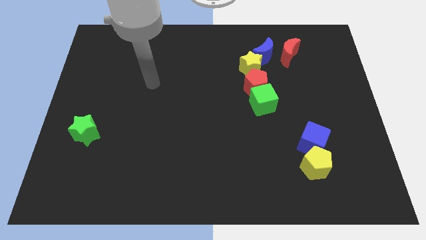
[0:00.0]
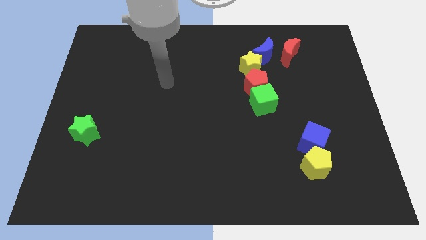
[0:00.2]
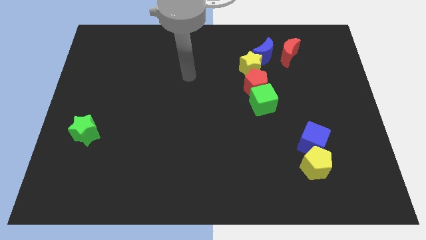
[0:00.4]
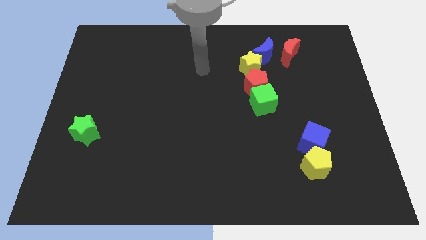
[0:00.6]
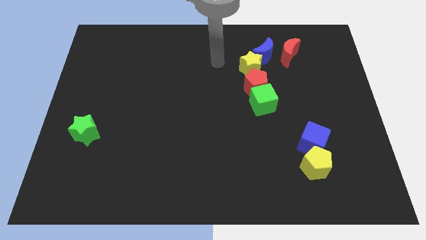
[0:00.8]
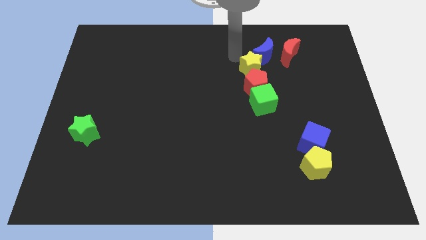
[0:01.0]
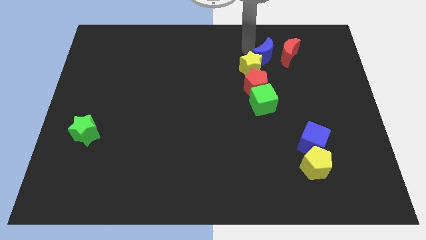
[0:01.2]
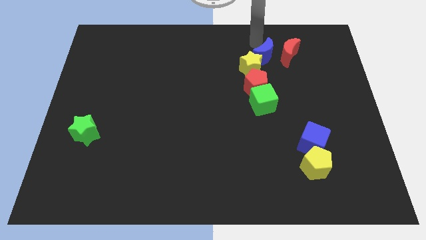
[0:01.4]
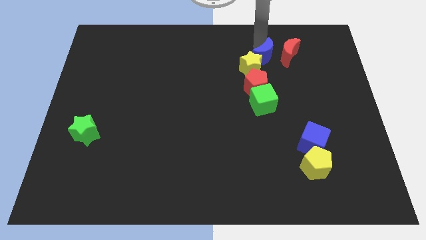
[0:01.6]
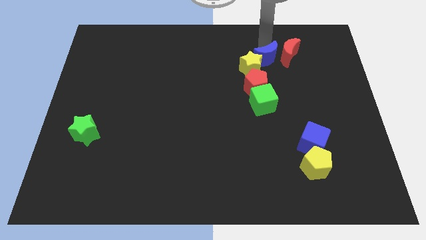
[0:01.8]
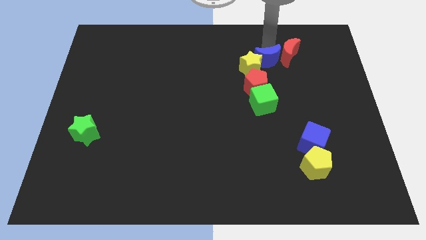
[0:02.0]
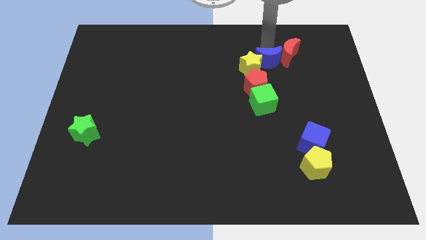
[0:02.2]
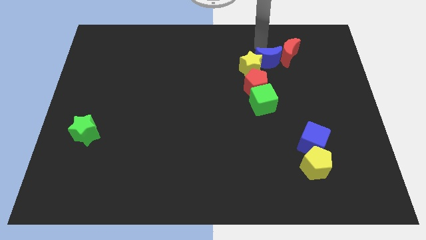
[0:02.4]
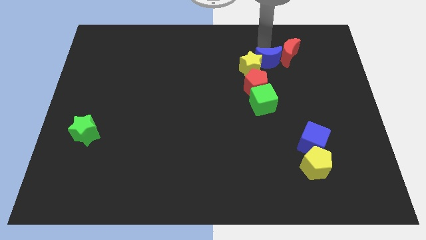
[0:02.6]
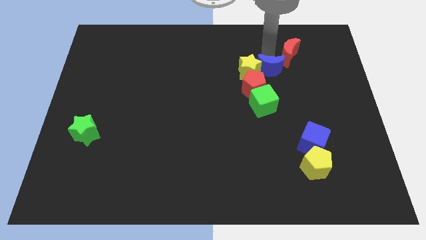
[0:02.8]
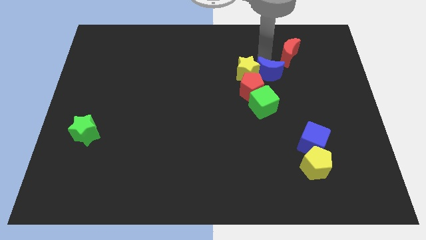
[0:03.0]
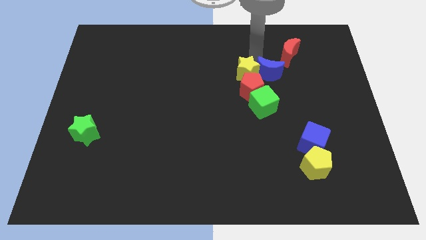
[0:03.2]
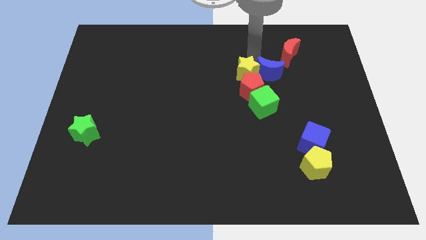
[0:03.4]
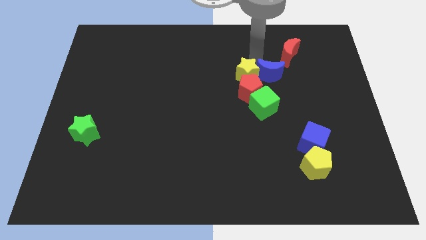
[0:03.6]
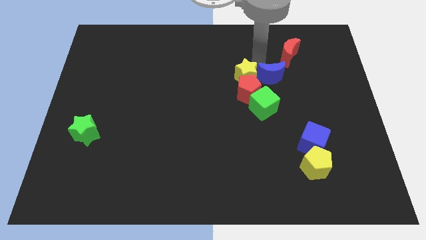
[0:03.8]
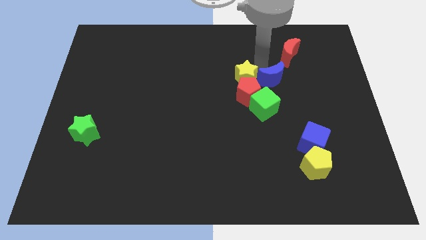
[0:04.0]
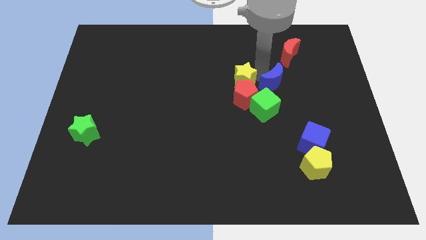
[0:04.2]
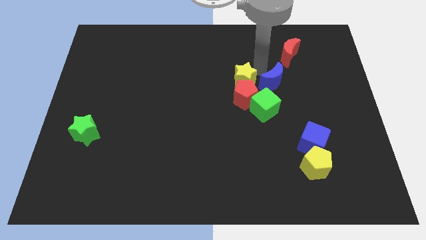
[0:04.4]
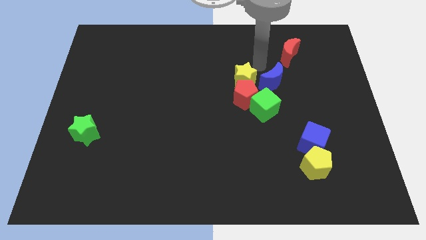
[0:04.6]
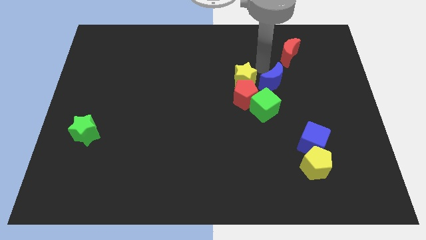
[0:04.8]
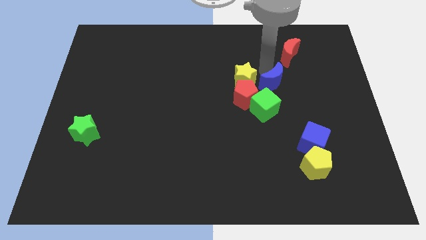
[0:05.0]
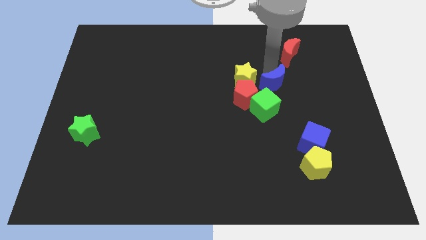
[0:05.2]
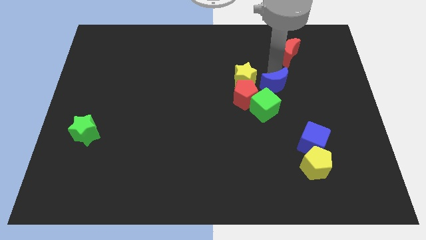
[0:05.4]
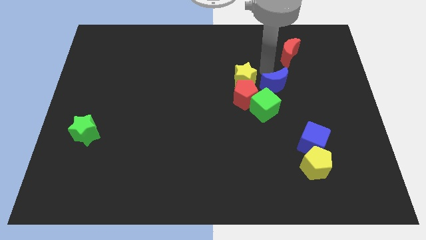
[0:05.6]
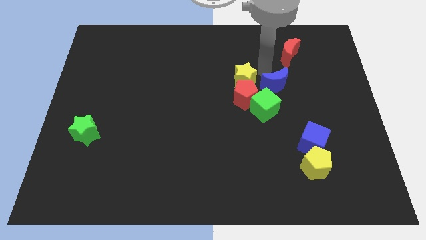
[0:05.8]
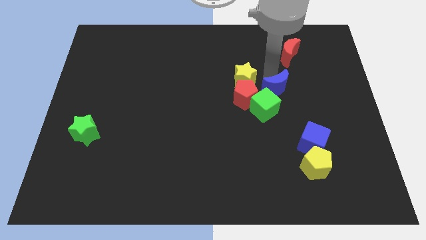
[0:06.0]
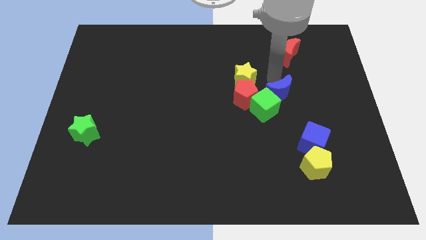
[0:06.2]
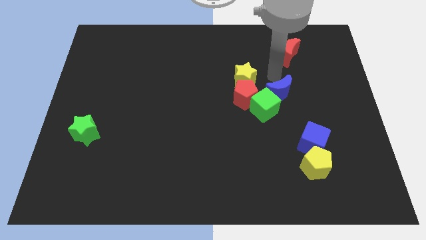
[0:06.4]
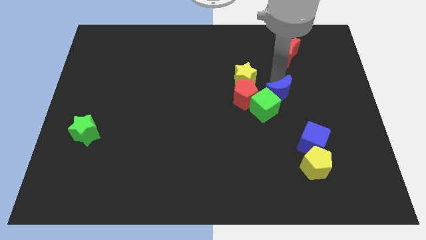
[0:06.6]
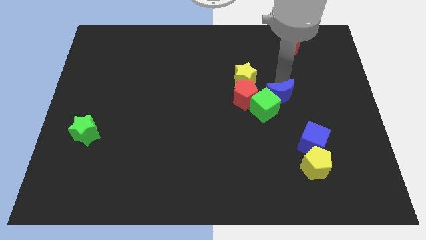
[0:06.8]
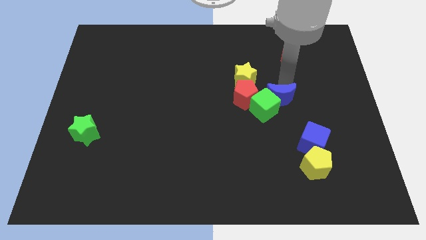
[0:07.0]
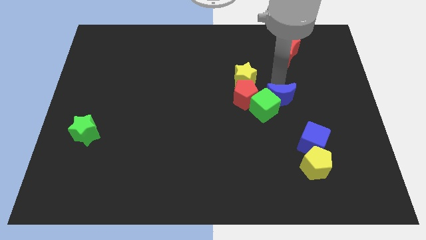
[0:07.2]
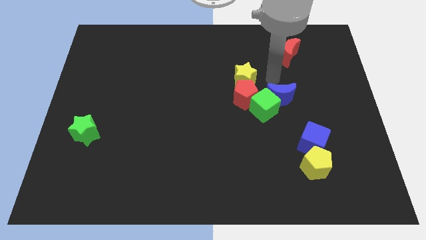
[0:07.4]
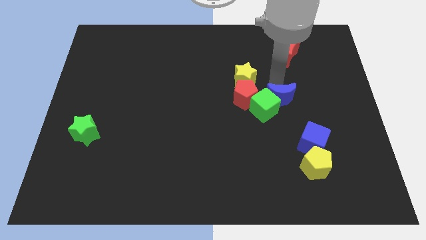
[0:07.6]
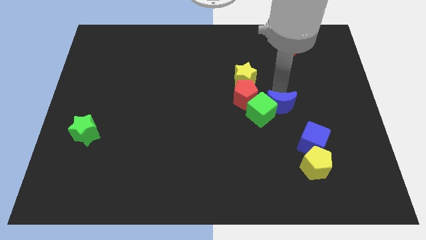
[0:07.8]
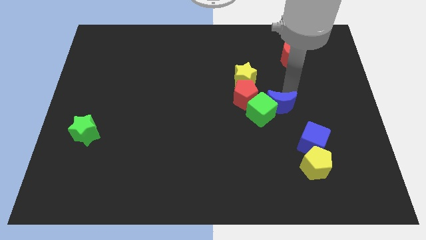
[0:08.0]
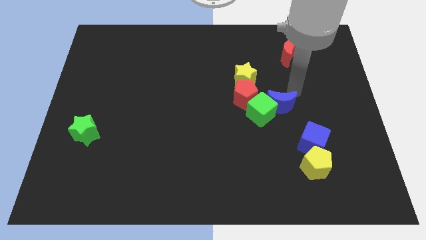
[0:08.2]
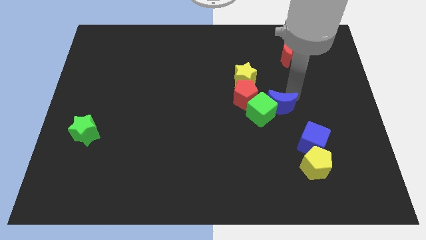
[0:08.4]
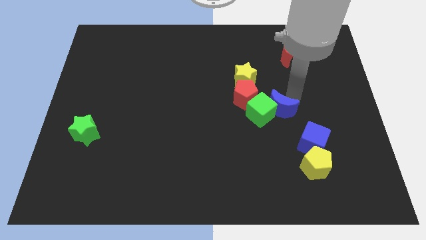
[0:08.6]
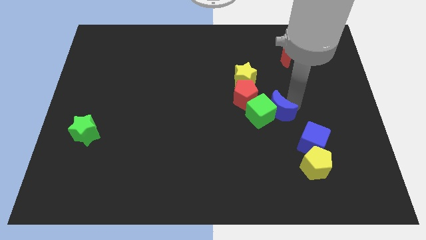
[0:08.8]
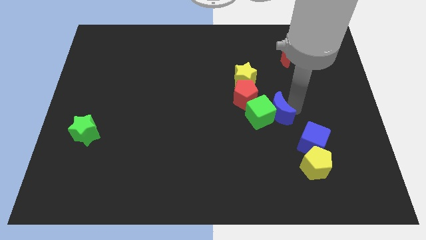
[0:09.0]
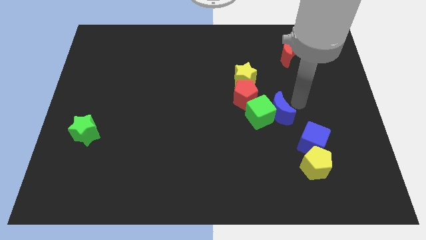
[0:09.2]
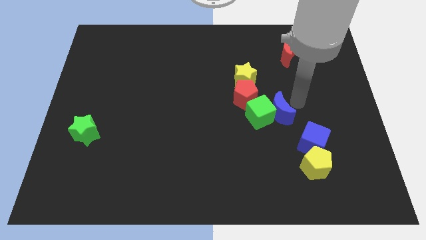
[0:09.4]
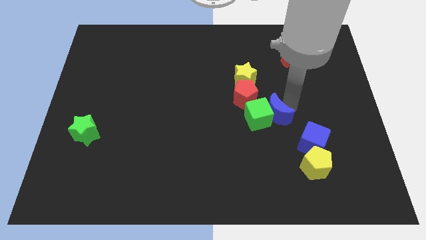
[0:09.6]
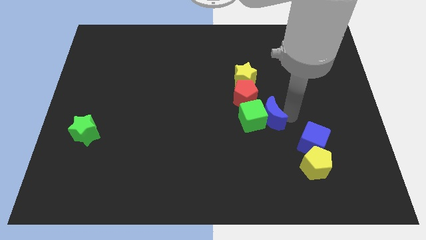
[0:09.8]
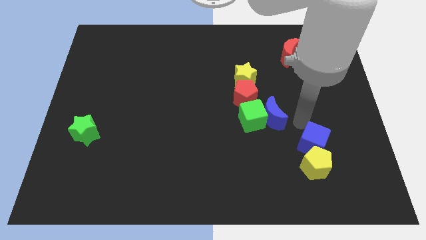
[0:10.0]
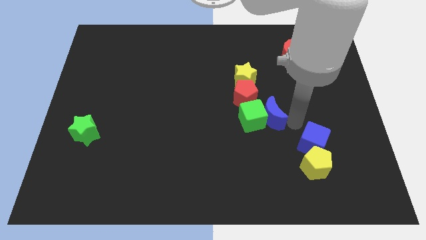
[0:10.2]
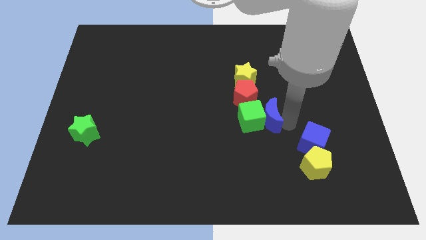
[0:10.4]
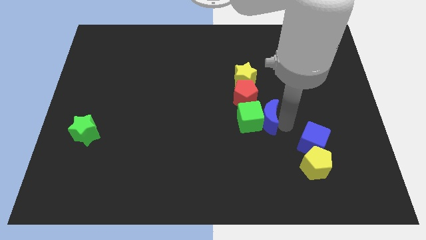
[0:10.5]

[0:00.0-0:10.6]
move the blue moon to the bottom side of the yellow star

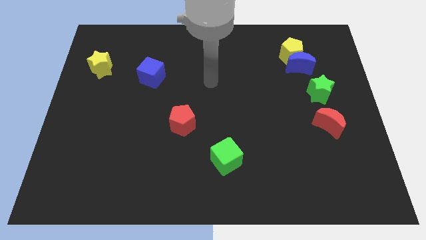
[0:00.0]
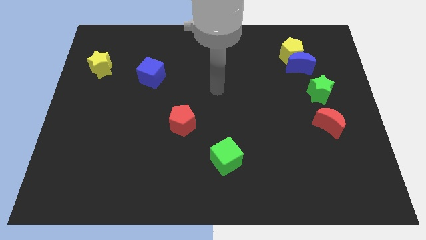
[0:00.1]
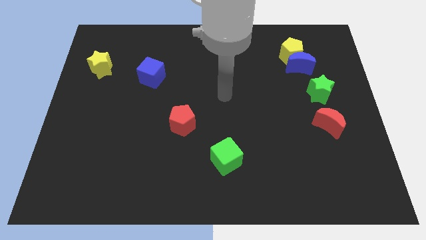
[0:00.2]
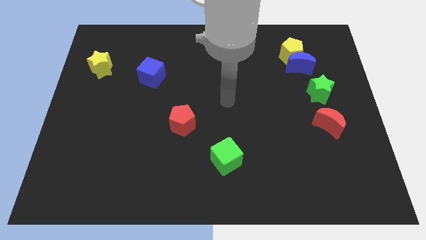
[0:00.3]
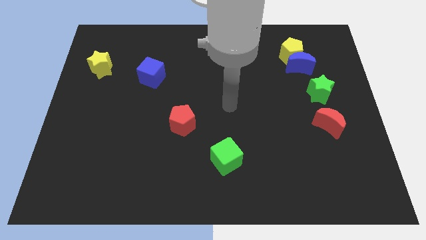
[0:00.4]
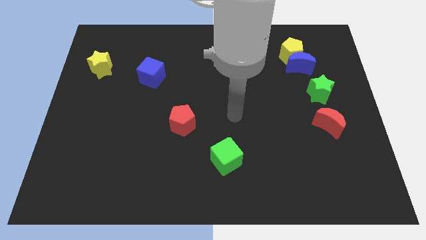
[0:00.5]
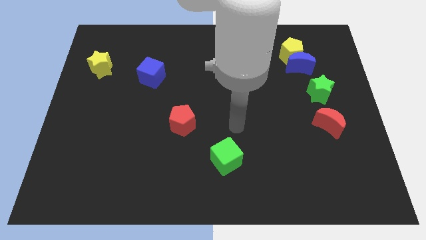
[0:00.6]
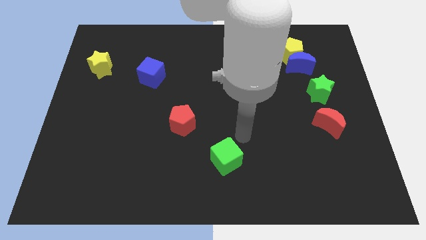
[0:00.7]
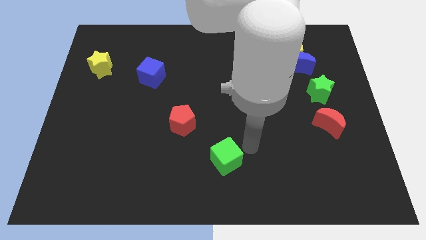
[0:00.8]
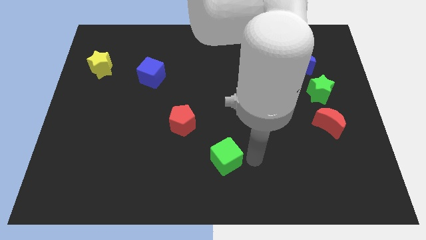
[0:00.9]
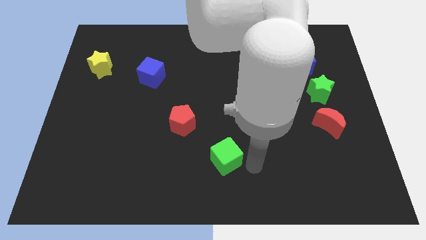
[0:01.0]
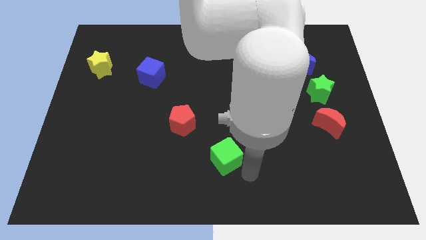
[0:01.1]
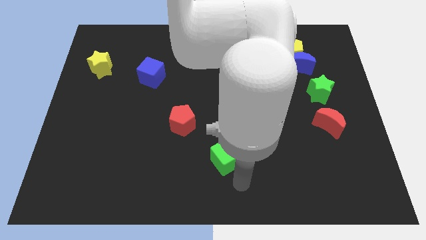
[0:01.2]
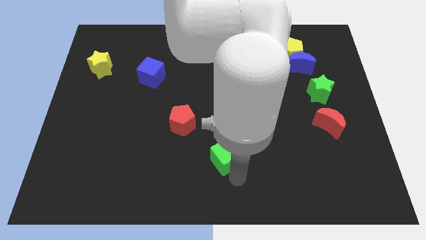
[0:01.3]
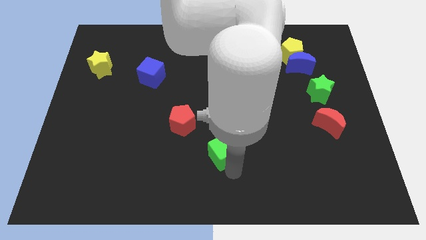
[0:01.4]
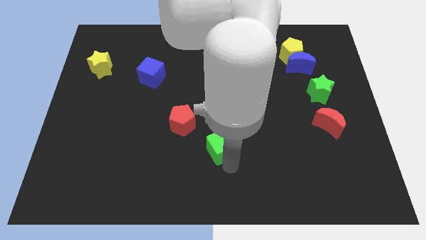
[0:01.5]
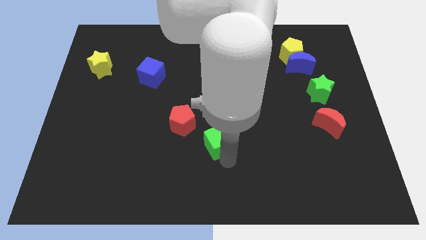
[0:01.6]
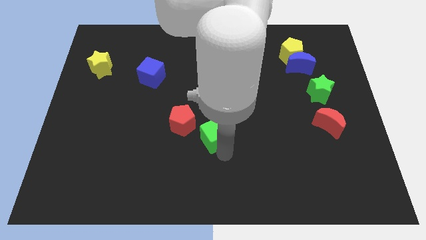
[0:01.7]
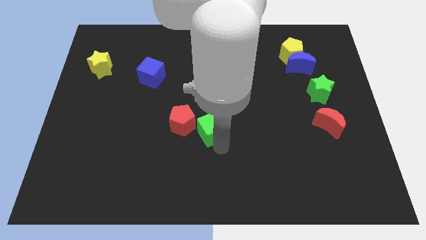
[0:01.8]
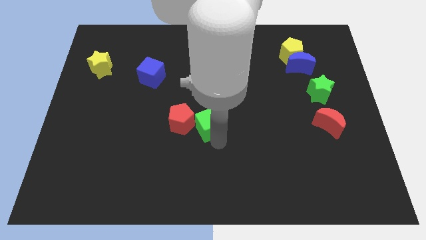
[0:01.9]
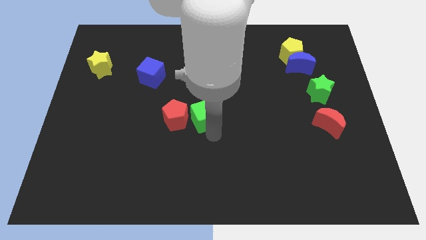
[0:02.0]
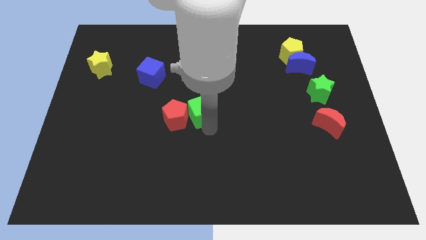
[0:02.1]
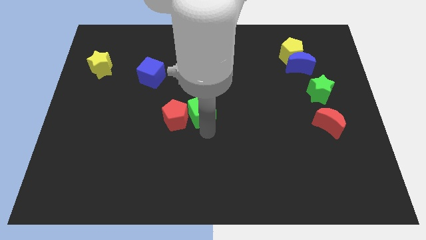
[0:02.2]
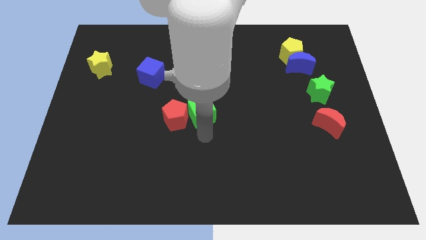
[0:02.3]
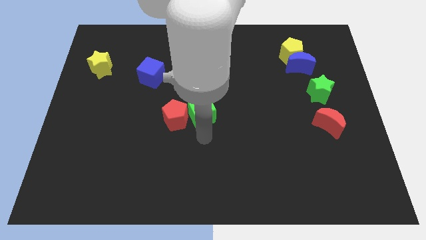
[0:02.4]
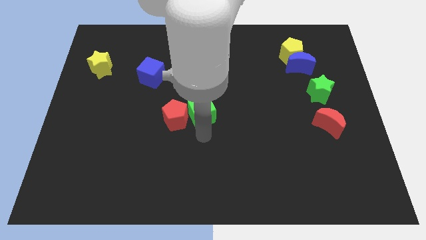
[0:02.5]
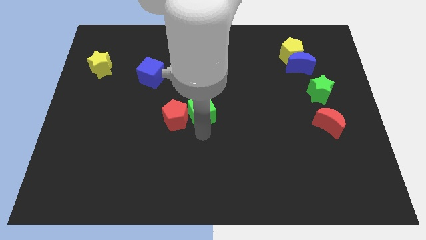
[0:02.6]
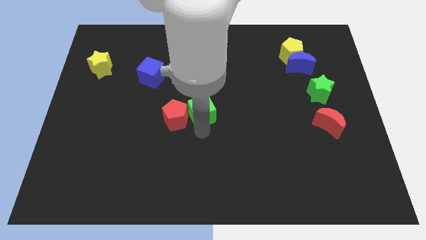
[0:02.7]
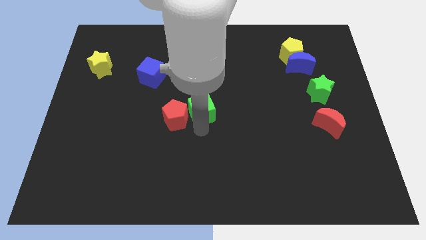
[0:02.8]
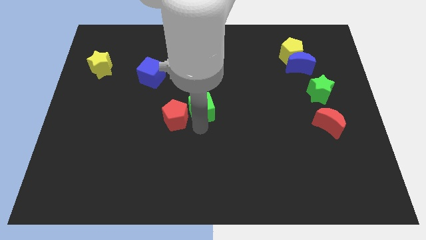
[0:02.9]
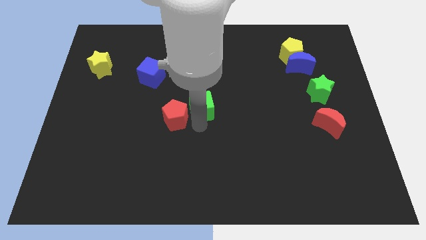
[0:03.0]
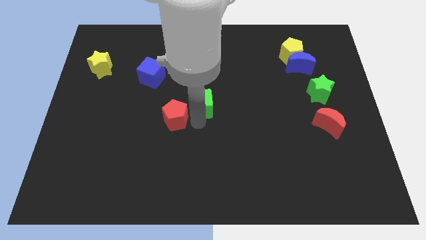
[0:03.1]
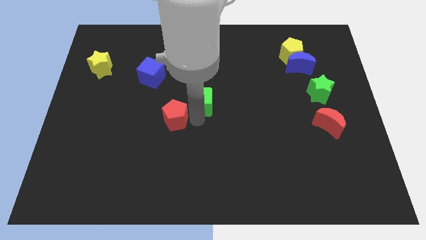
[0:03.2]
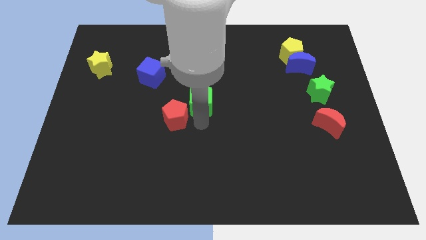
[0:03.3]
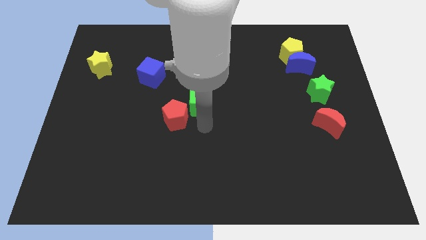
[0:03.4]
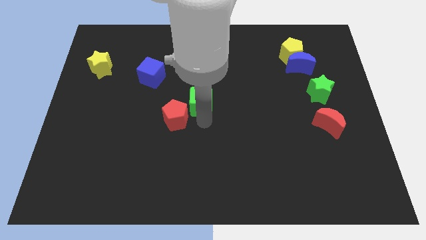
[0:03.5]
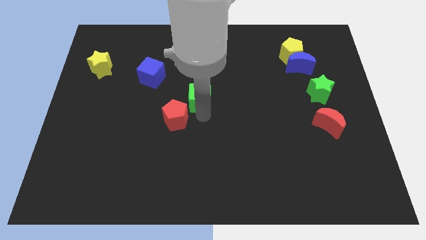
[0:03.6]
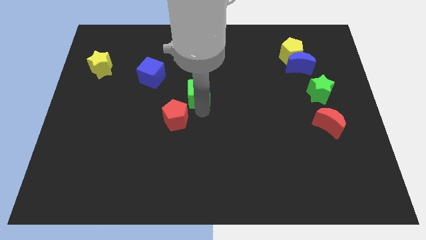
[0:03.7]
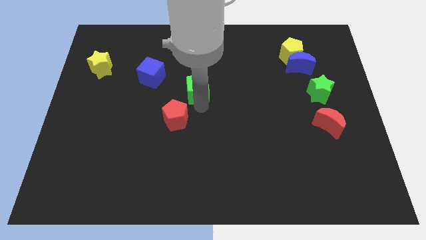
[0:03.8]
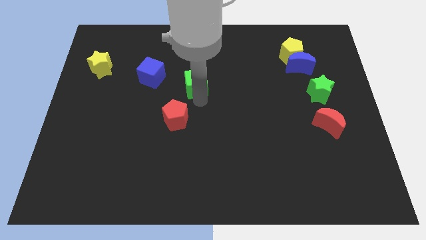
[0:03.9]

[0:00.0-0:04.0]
move the green cube right of the blue cube
